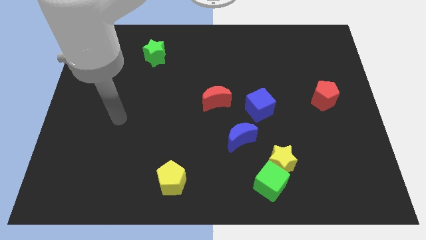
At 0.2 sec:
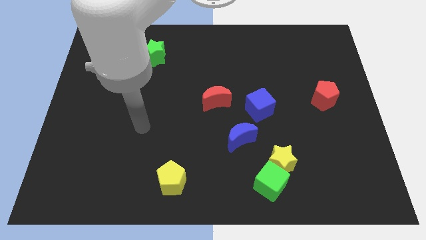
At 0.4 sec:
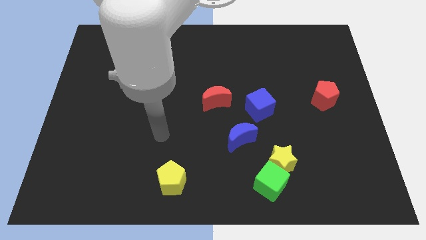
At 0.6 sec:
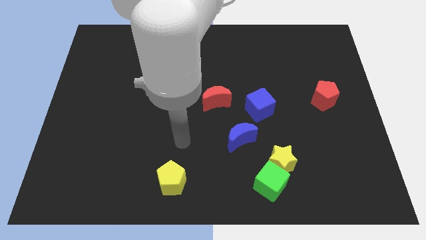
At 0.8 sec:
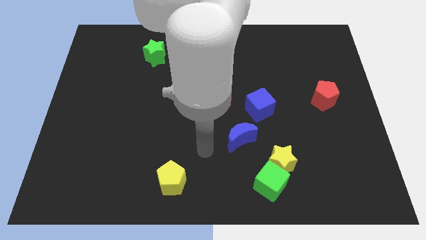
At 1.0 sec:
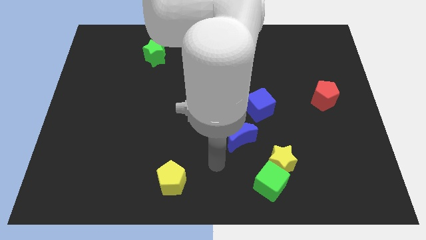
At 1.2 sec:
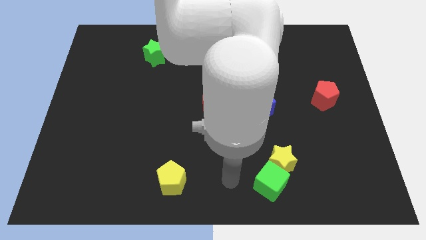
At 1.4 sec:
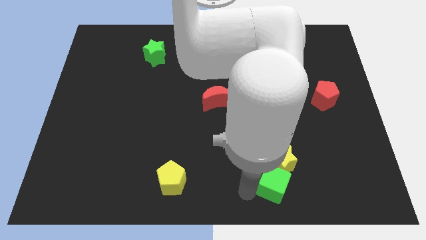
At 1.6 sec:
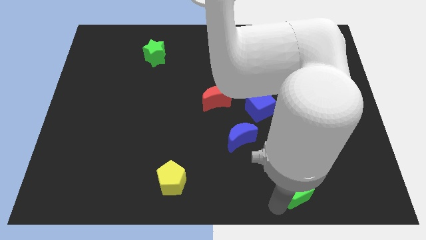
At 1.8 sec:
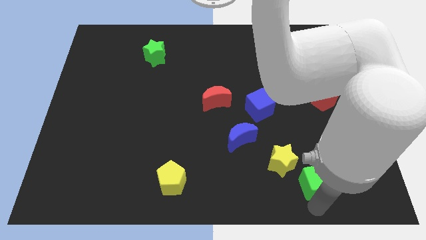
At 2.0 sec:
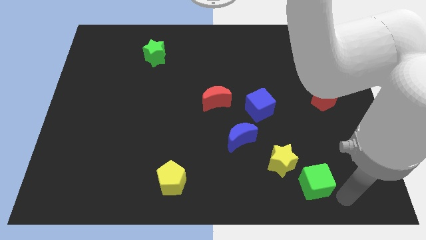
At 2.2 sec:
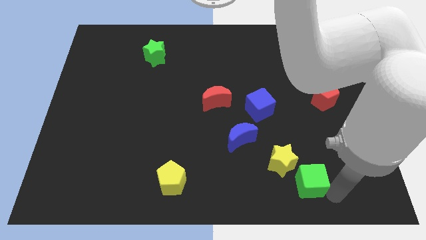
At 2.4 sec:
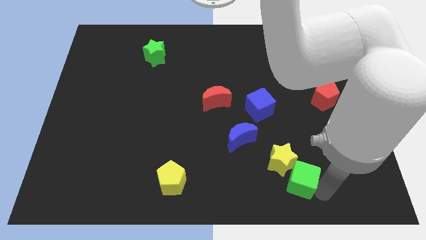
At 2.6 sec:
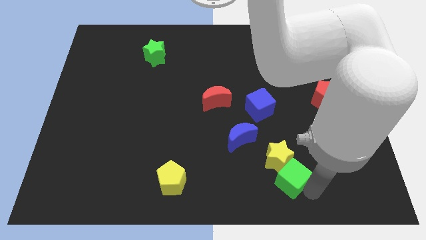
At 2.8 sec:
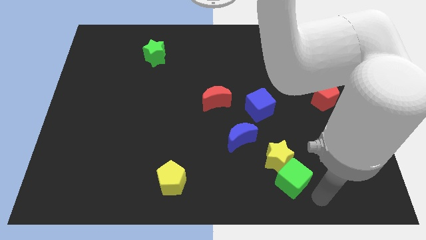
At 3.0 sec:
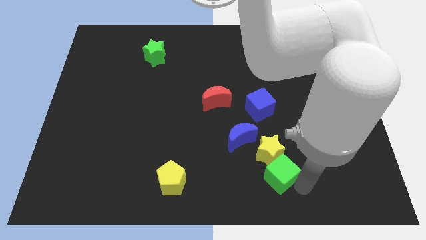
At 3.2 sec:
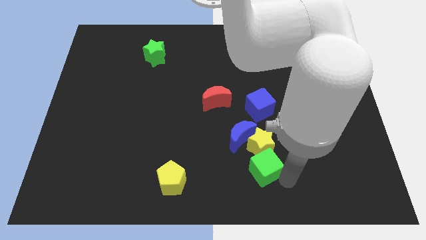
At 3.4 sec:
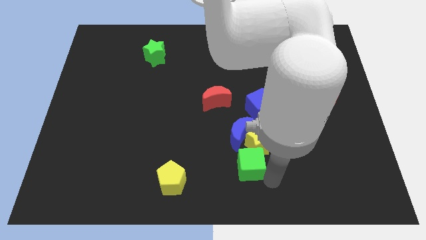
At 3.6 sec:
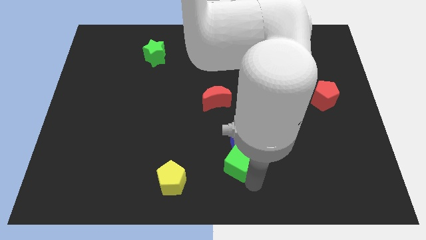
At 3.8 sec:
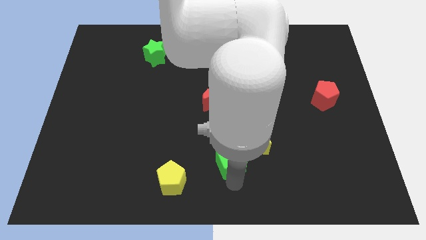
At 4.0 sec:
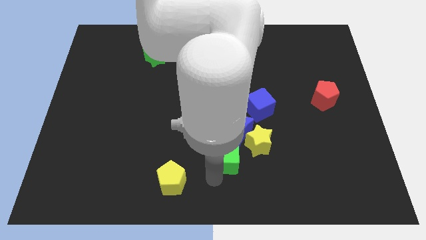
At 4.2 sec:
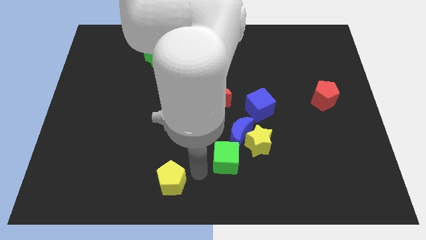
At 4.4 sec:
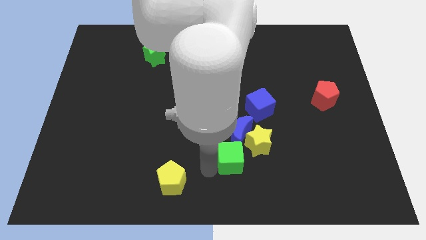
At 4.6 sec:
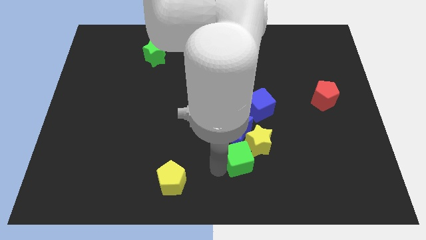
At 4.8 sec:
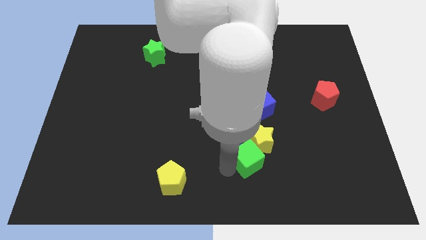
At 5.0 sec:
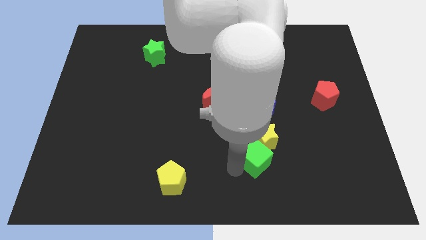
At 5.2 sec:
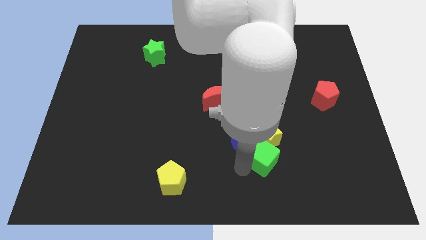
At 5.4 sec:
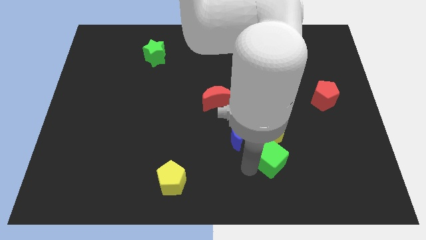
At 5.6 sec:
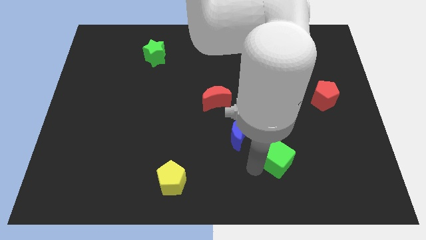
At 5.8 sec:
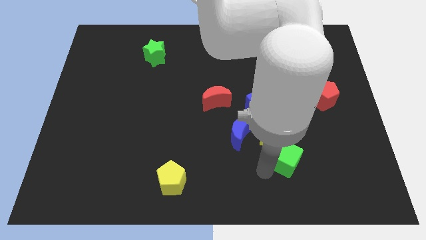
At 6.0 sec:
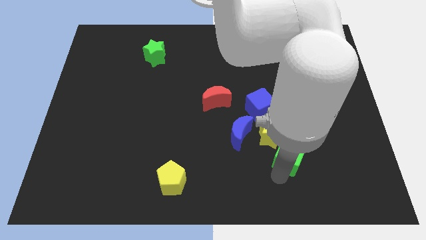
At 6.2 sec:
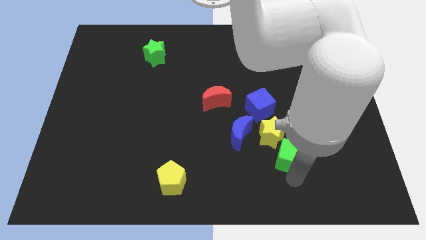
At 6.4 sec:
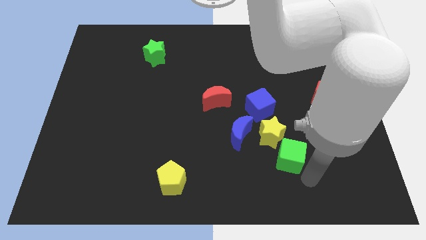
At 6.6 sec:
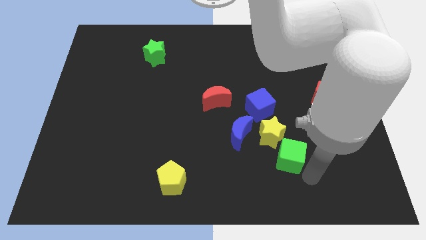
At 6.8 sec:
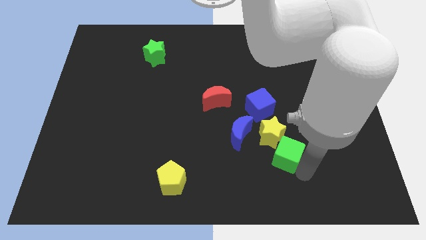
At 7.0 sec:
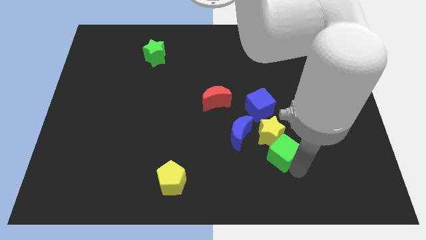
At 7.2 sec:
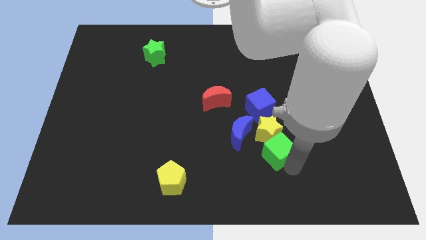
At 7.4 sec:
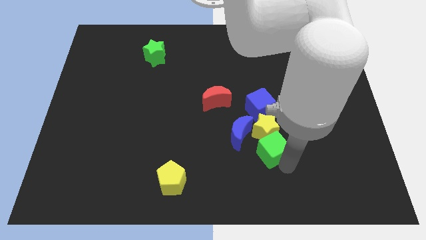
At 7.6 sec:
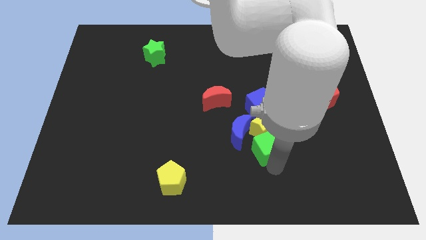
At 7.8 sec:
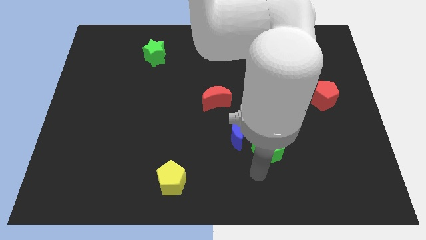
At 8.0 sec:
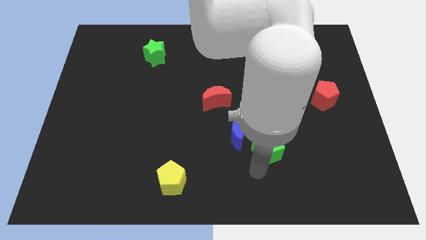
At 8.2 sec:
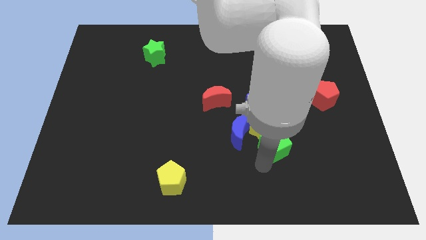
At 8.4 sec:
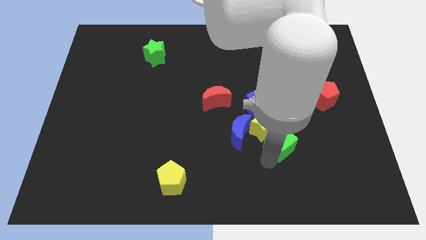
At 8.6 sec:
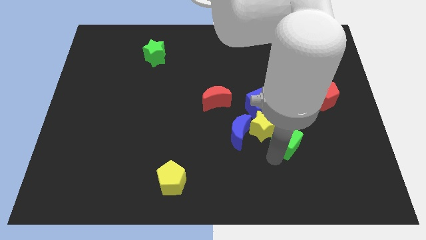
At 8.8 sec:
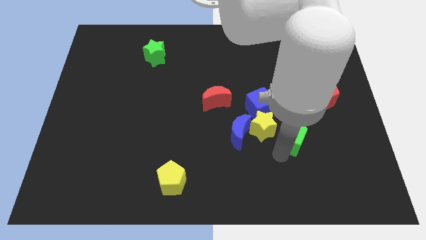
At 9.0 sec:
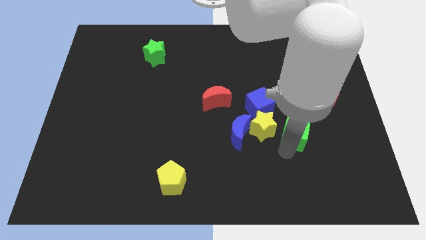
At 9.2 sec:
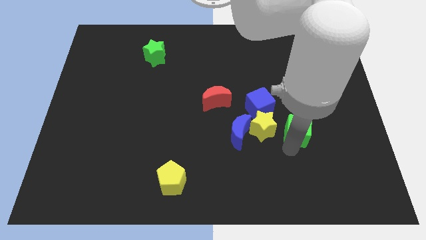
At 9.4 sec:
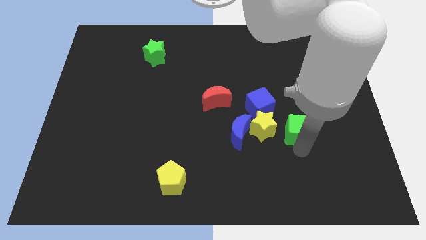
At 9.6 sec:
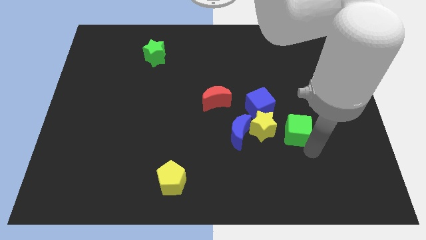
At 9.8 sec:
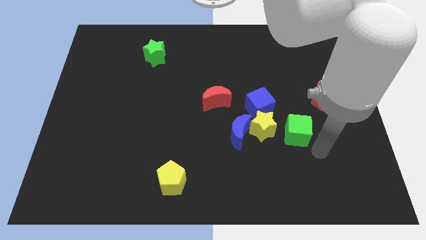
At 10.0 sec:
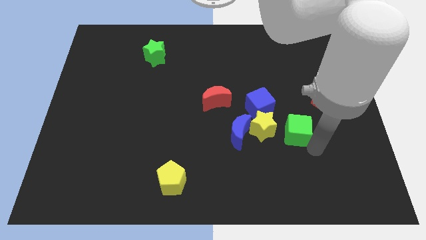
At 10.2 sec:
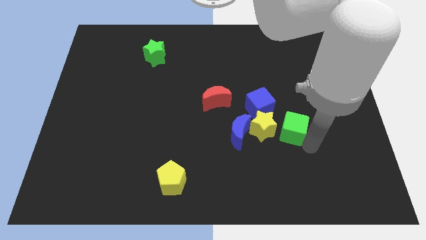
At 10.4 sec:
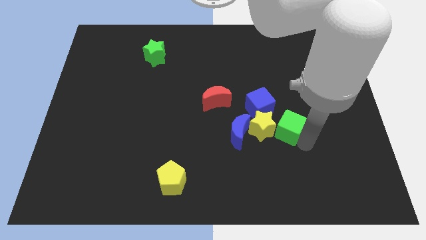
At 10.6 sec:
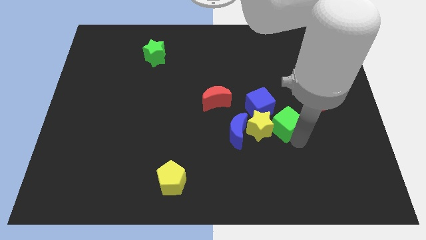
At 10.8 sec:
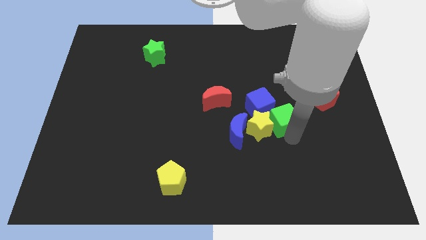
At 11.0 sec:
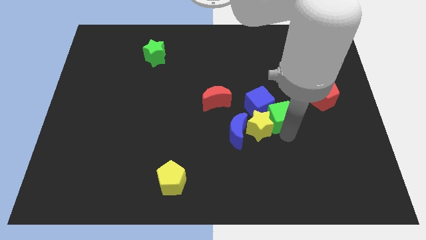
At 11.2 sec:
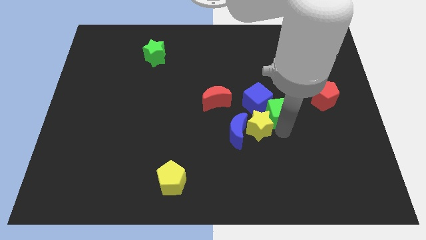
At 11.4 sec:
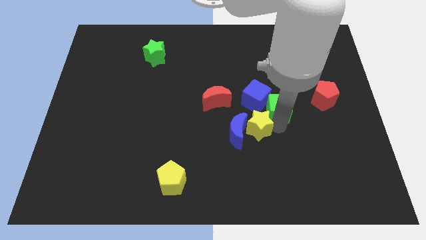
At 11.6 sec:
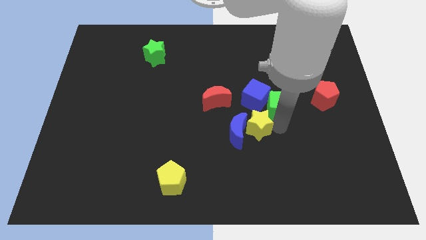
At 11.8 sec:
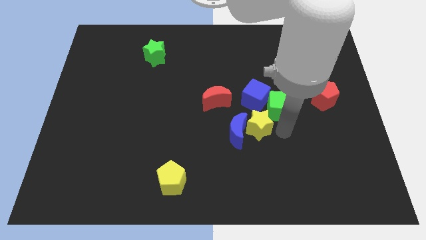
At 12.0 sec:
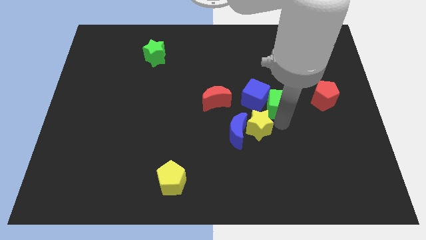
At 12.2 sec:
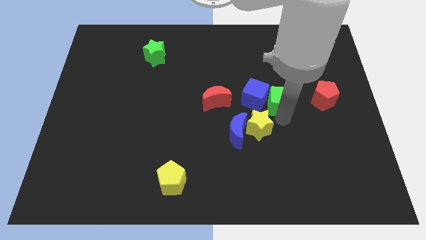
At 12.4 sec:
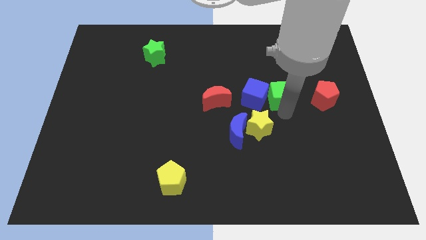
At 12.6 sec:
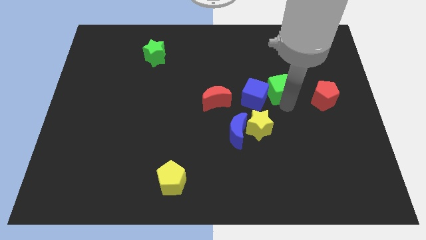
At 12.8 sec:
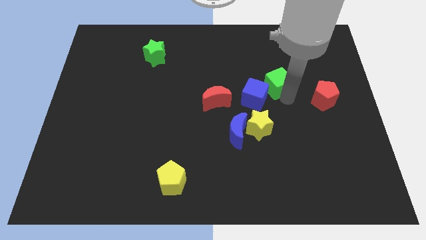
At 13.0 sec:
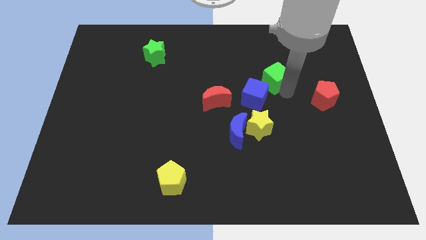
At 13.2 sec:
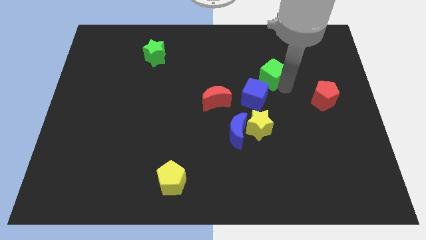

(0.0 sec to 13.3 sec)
slide the green cube to the top of the blue cube

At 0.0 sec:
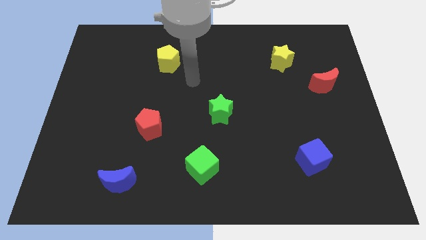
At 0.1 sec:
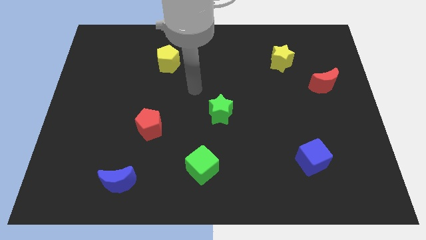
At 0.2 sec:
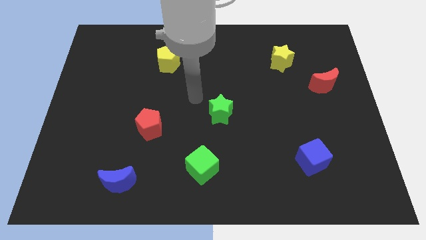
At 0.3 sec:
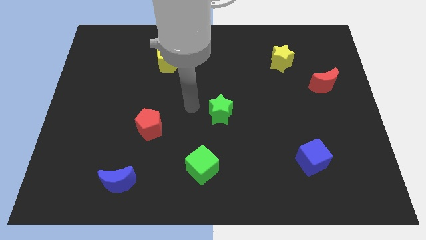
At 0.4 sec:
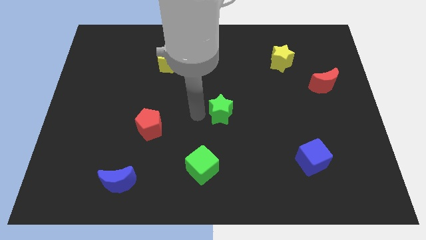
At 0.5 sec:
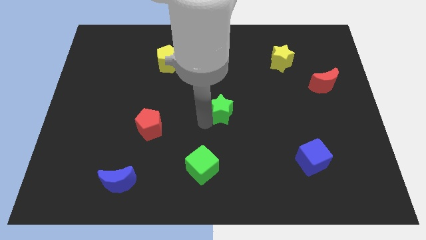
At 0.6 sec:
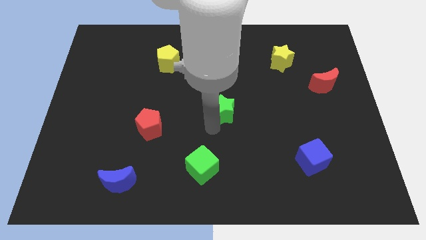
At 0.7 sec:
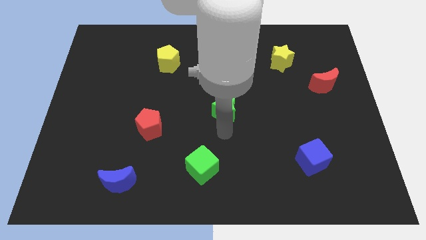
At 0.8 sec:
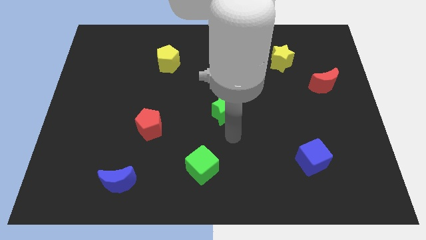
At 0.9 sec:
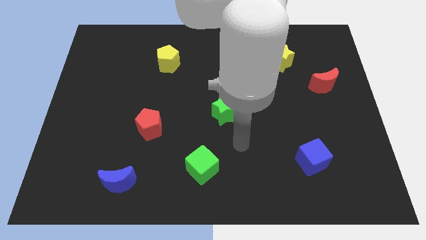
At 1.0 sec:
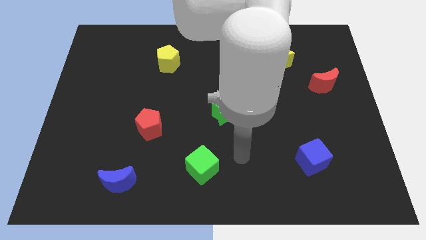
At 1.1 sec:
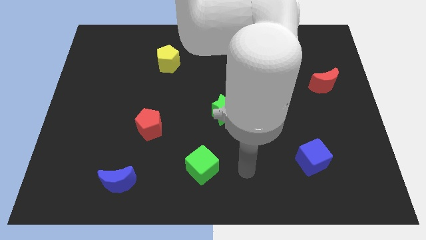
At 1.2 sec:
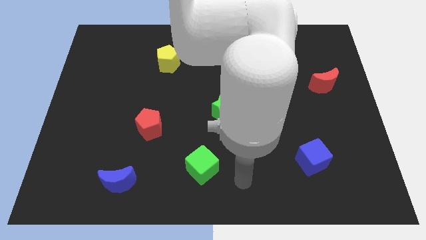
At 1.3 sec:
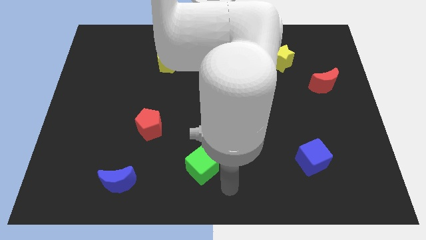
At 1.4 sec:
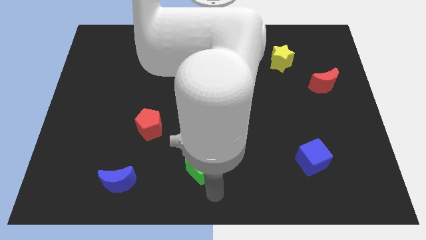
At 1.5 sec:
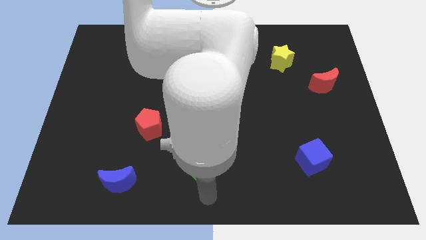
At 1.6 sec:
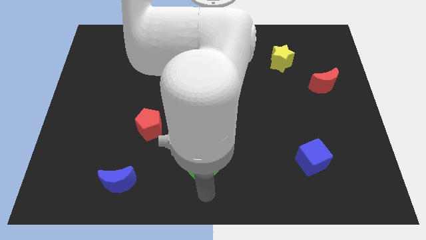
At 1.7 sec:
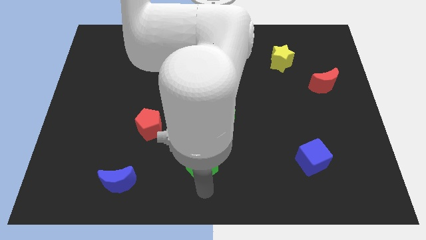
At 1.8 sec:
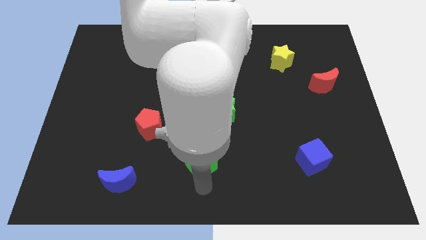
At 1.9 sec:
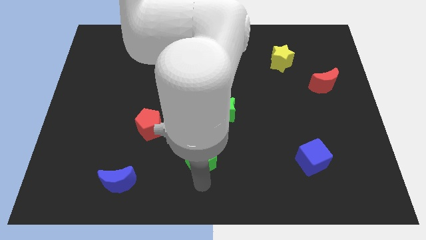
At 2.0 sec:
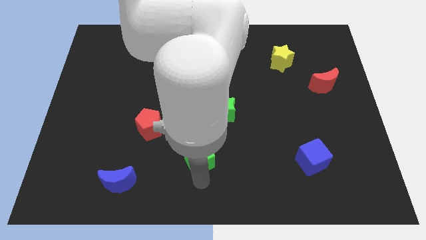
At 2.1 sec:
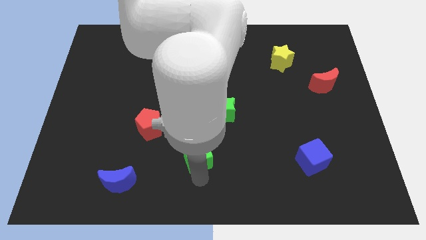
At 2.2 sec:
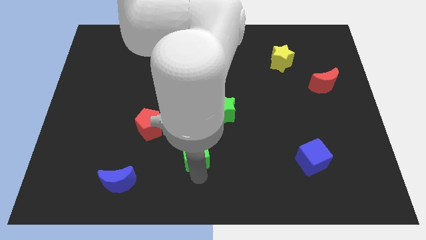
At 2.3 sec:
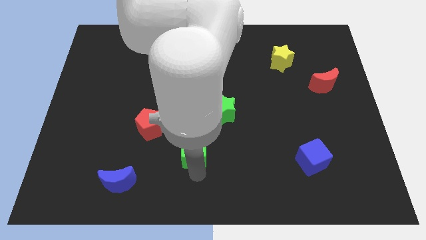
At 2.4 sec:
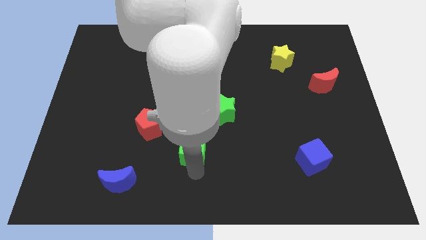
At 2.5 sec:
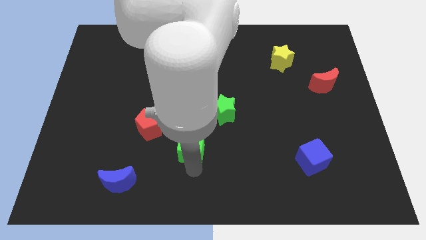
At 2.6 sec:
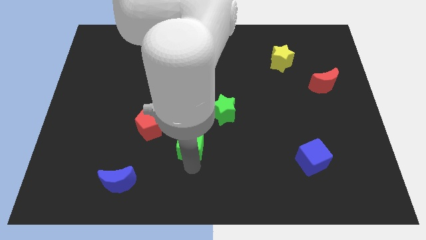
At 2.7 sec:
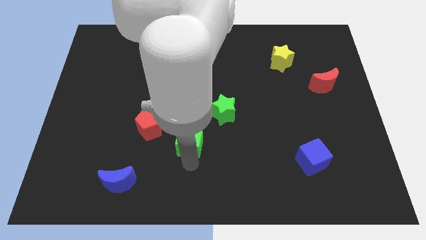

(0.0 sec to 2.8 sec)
move the green cube just right of the red pentagon
